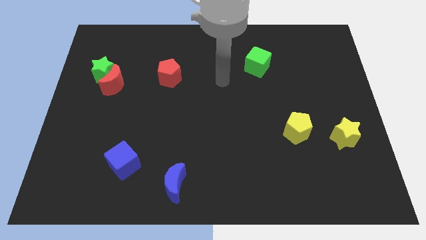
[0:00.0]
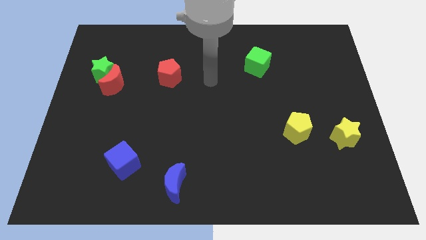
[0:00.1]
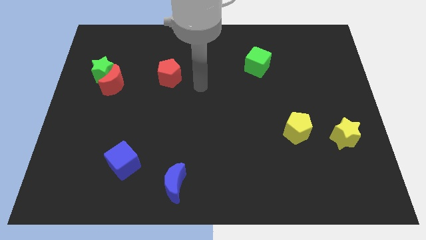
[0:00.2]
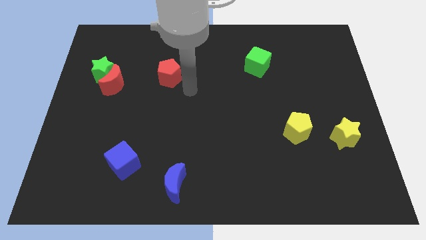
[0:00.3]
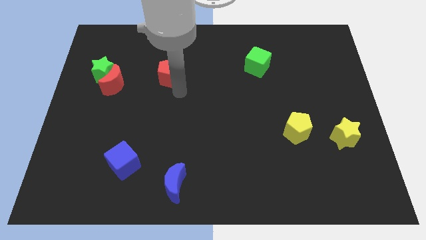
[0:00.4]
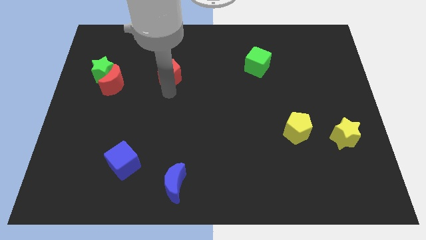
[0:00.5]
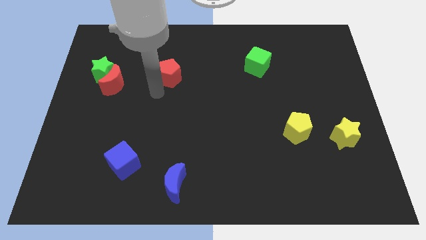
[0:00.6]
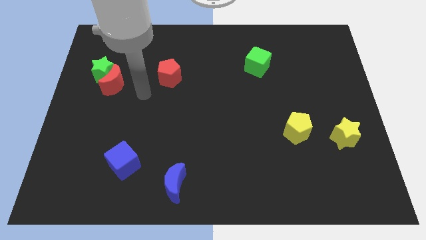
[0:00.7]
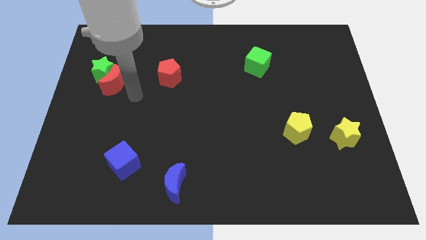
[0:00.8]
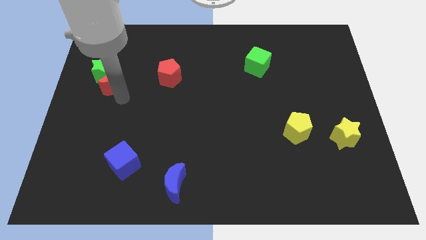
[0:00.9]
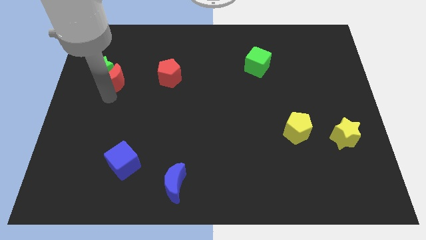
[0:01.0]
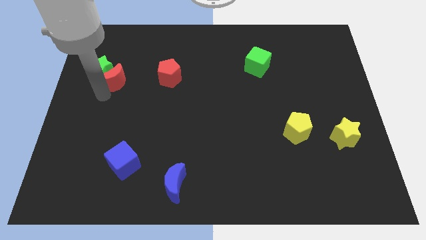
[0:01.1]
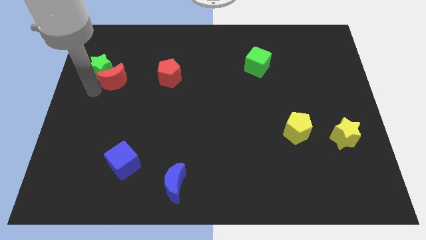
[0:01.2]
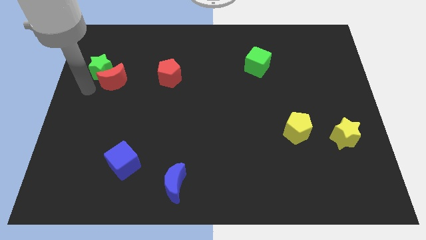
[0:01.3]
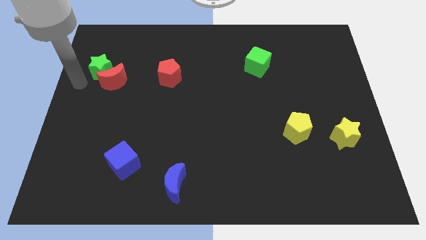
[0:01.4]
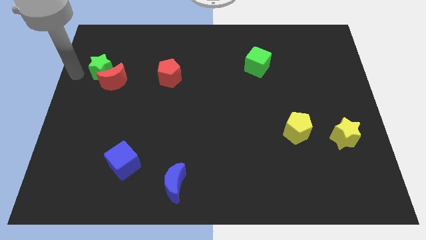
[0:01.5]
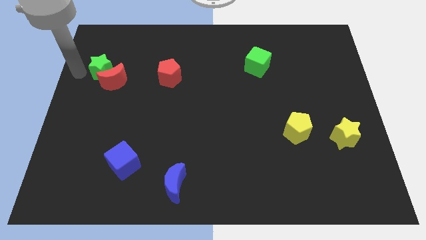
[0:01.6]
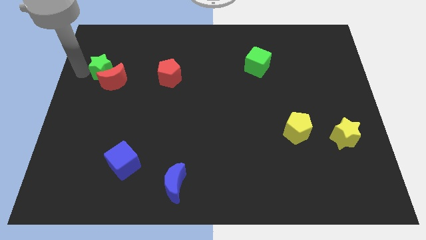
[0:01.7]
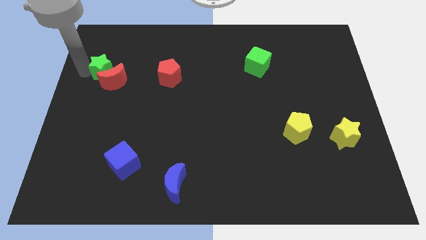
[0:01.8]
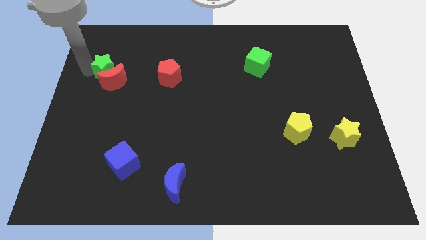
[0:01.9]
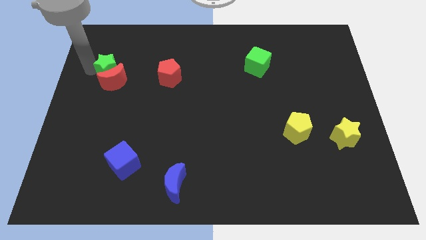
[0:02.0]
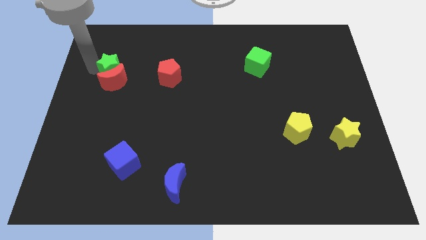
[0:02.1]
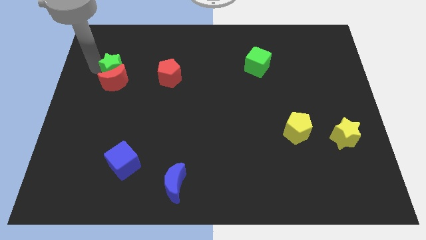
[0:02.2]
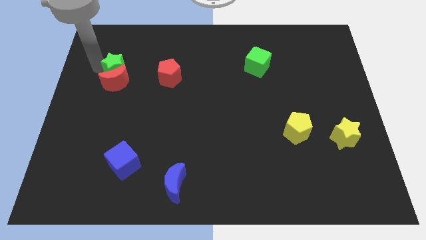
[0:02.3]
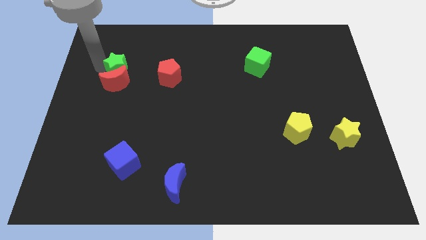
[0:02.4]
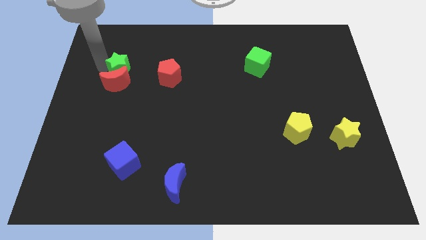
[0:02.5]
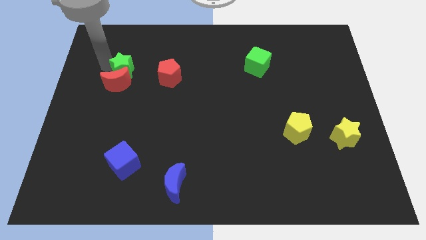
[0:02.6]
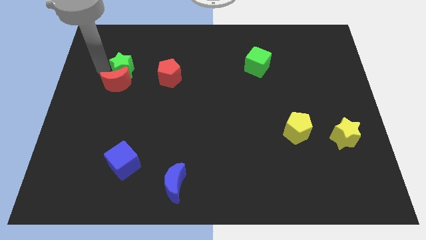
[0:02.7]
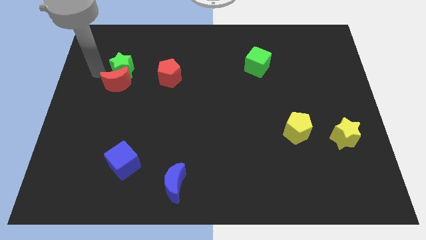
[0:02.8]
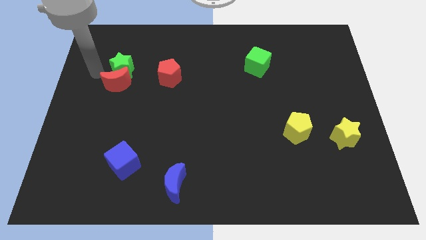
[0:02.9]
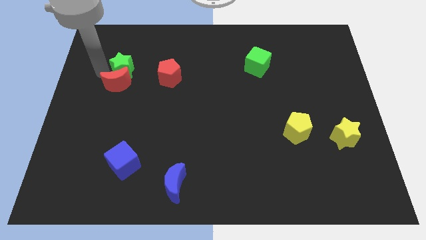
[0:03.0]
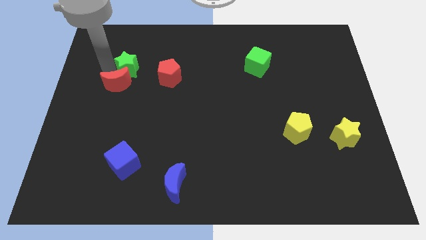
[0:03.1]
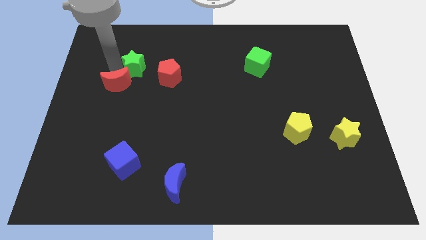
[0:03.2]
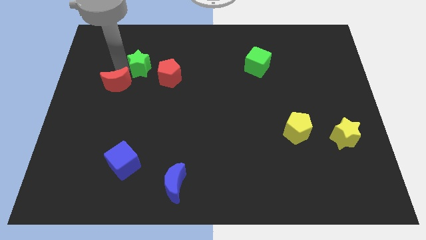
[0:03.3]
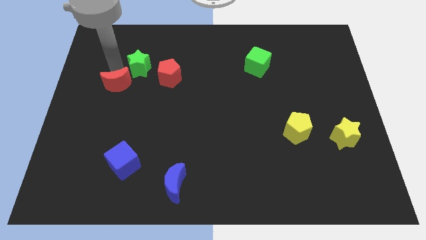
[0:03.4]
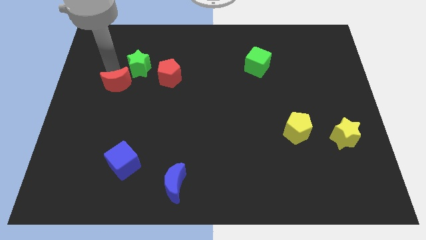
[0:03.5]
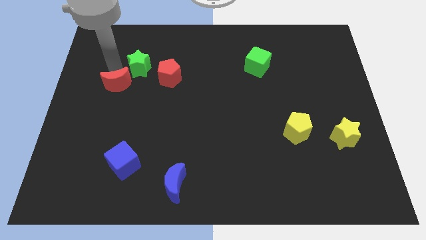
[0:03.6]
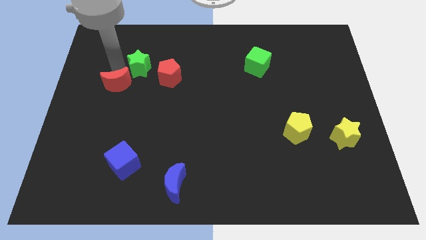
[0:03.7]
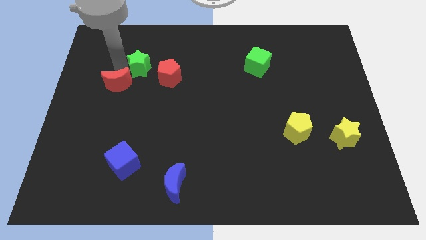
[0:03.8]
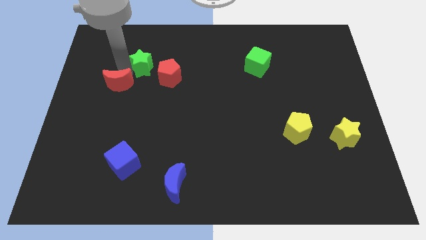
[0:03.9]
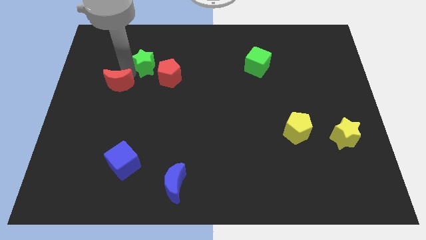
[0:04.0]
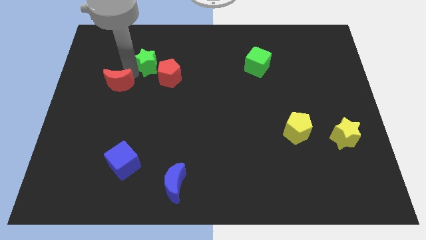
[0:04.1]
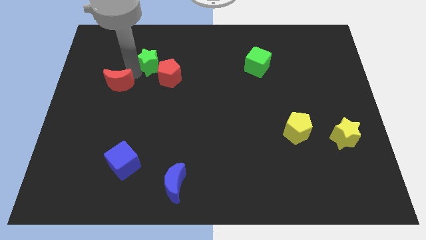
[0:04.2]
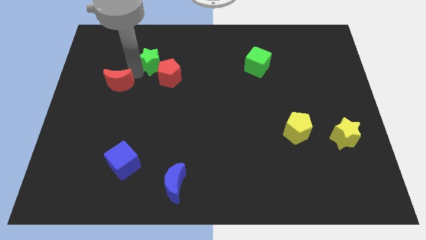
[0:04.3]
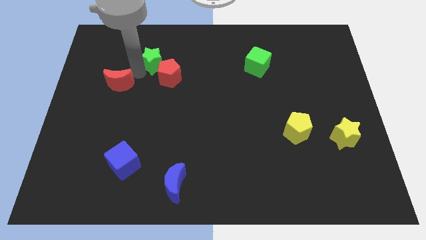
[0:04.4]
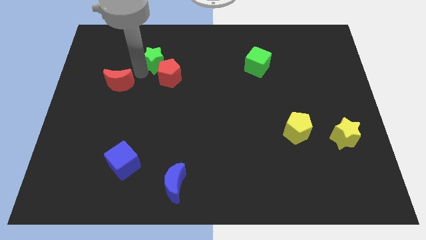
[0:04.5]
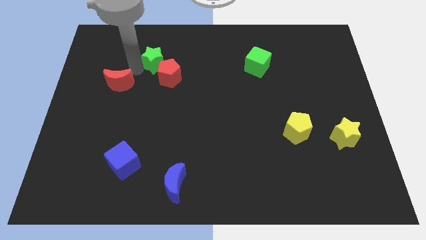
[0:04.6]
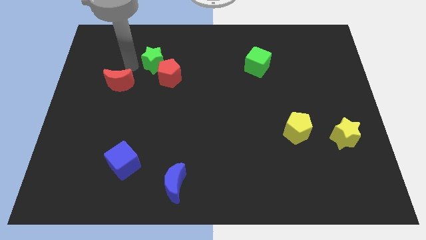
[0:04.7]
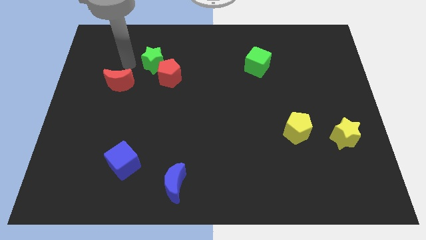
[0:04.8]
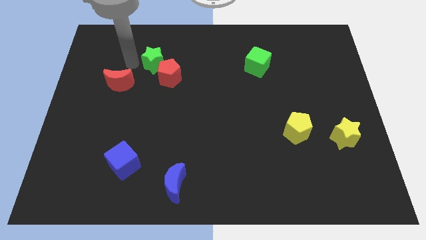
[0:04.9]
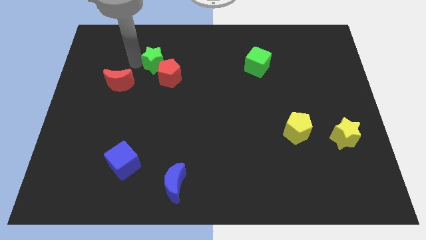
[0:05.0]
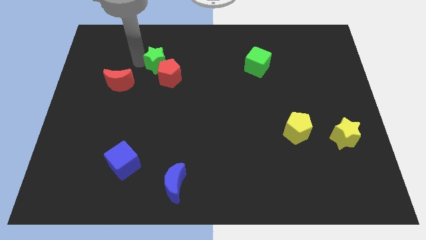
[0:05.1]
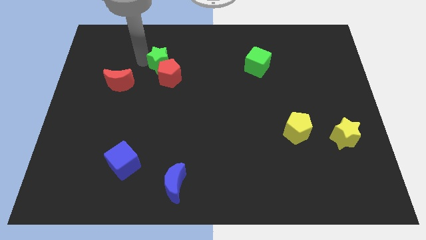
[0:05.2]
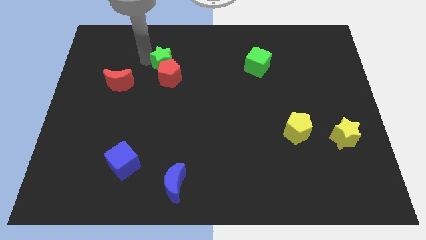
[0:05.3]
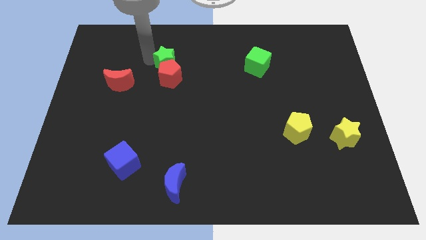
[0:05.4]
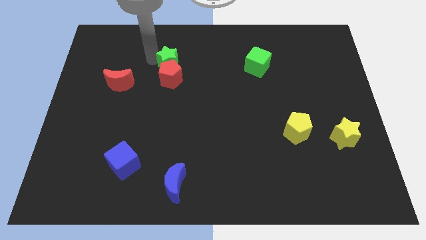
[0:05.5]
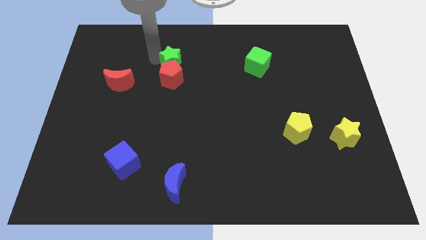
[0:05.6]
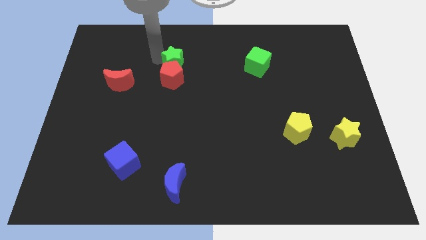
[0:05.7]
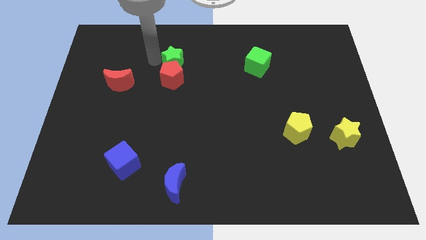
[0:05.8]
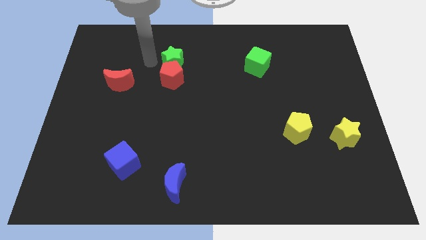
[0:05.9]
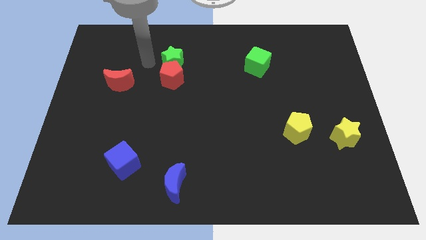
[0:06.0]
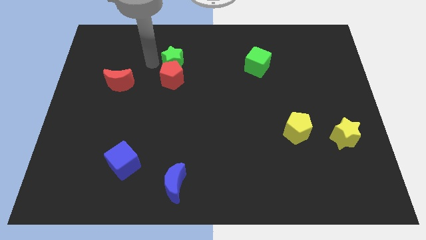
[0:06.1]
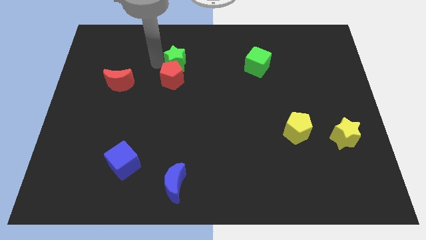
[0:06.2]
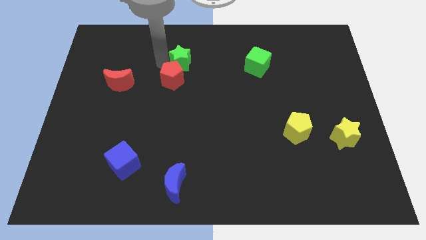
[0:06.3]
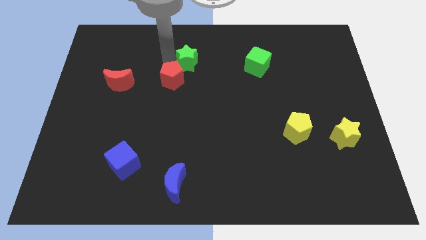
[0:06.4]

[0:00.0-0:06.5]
push the green star right

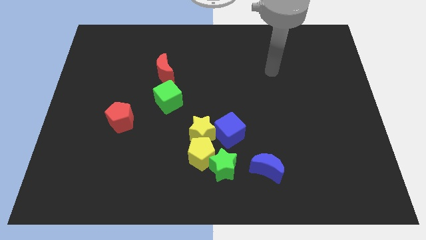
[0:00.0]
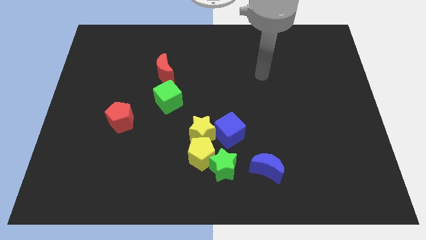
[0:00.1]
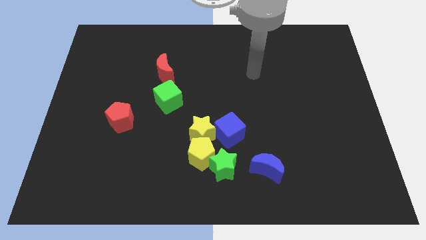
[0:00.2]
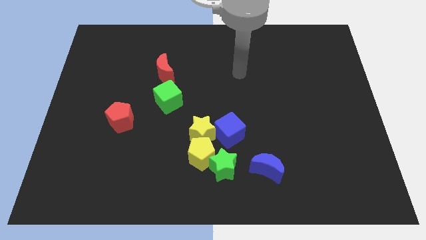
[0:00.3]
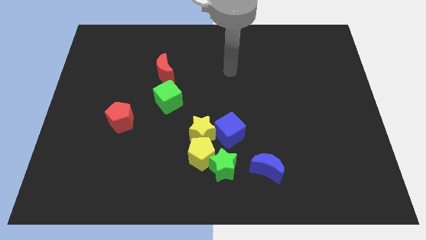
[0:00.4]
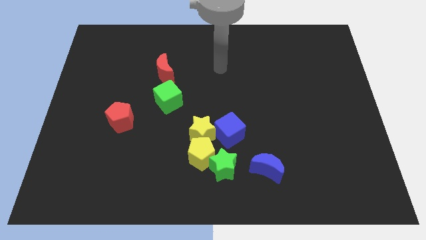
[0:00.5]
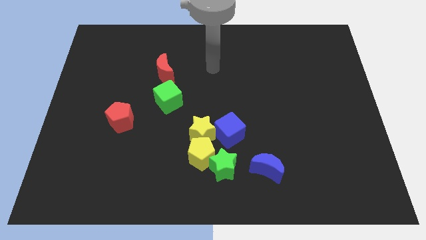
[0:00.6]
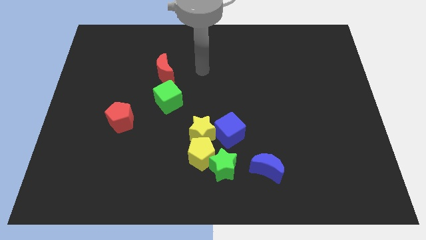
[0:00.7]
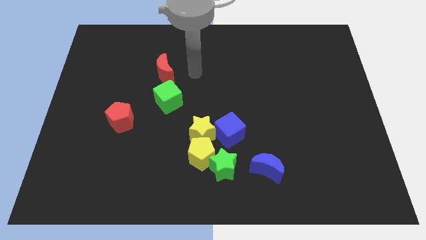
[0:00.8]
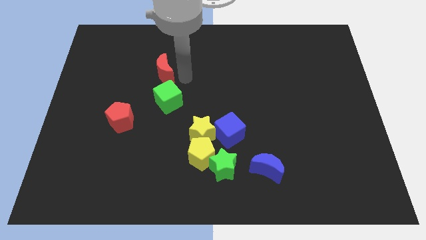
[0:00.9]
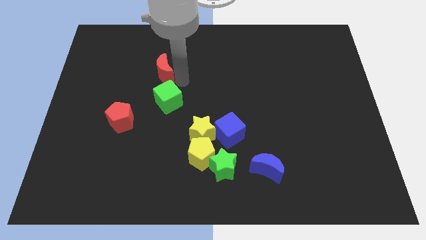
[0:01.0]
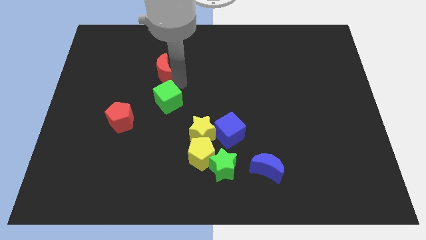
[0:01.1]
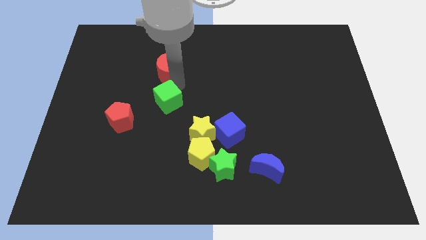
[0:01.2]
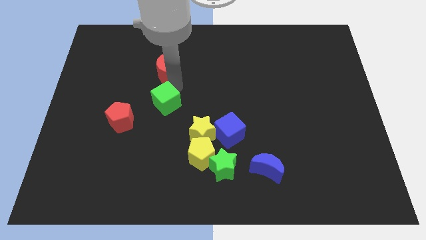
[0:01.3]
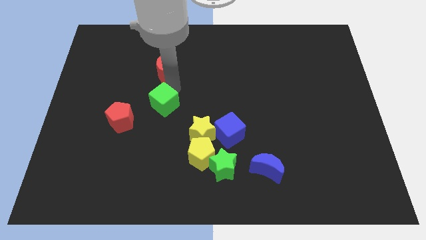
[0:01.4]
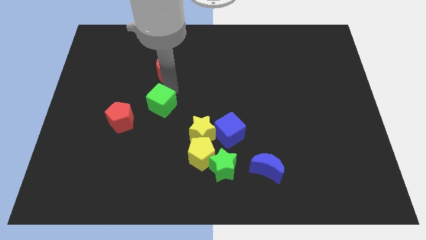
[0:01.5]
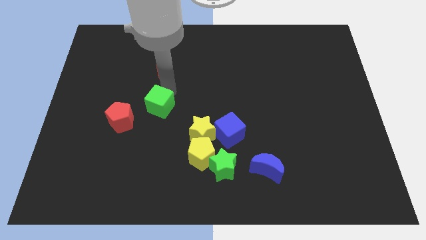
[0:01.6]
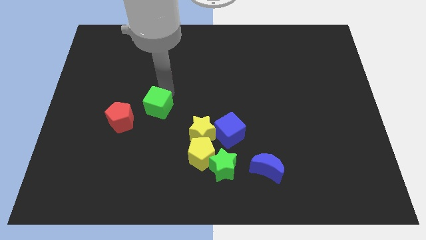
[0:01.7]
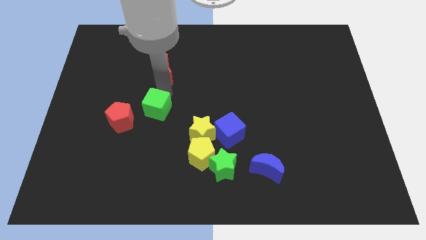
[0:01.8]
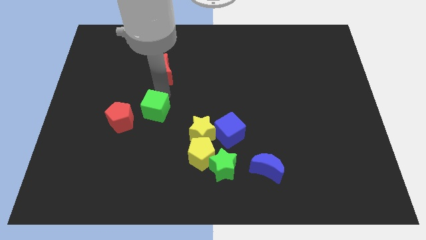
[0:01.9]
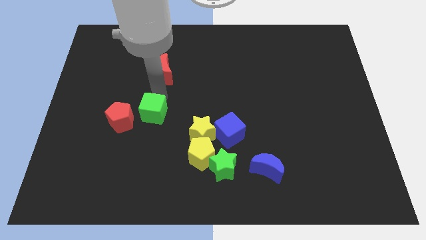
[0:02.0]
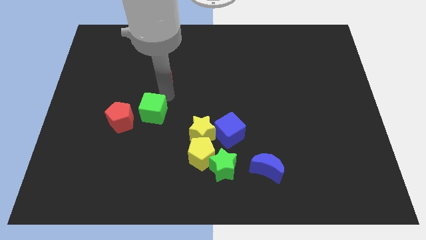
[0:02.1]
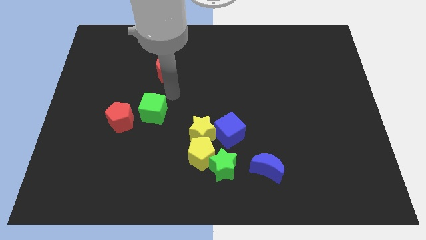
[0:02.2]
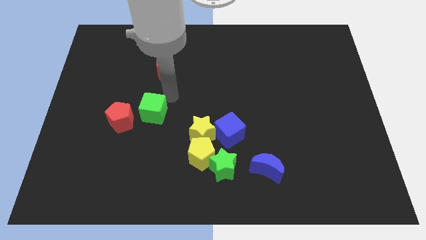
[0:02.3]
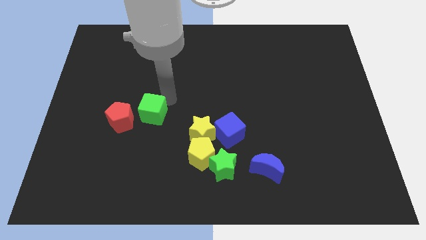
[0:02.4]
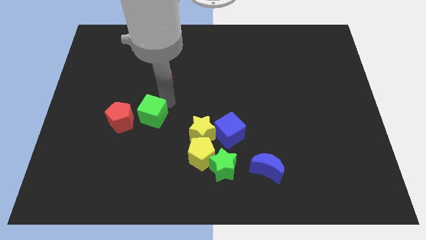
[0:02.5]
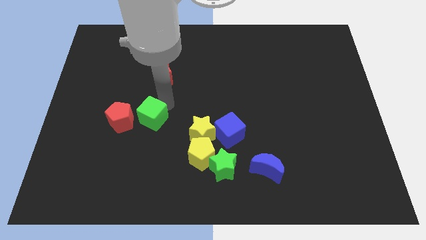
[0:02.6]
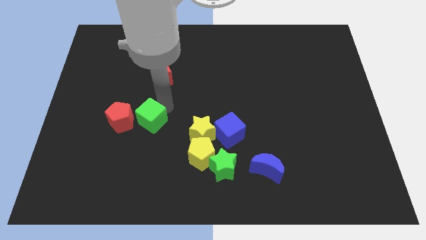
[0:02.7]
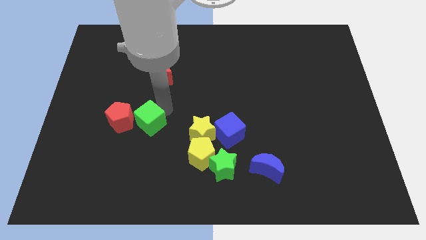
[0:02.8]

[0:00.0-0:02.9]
slightly slide the green cube down and left diagonally
